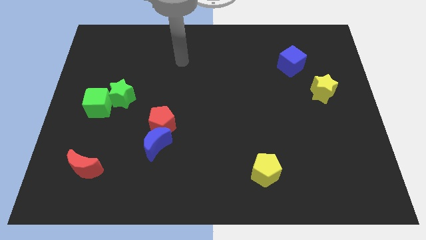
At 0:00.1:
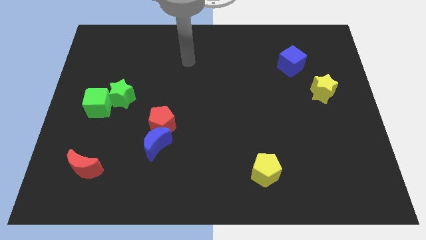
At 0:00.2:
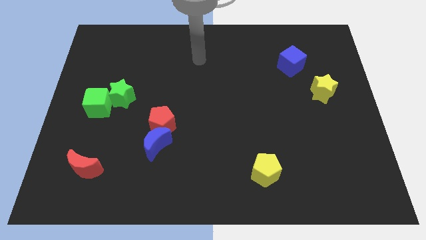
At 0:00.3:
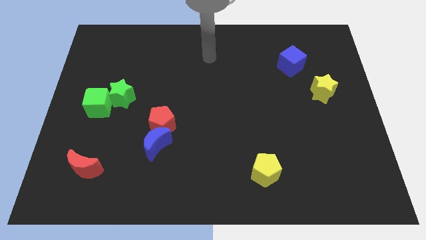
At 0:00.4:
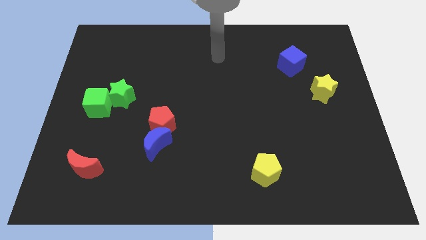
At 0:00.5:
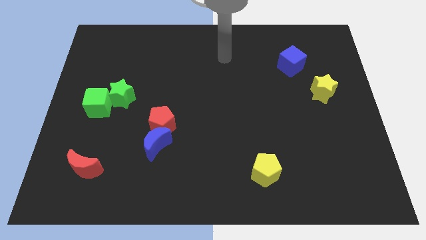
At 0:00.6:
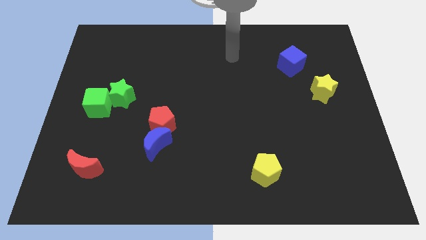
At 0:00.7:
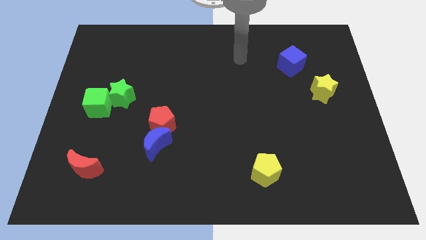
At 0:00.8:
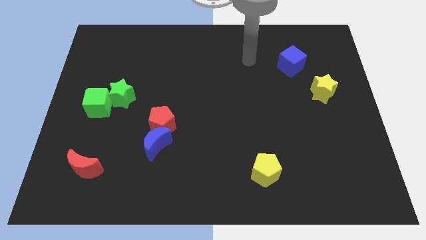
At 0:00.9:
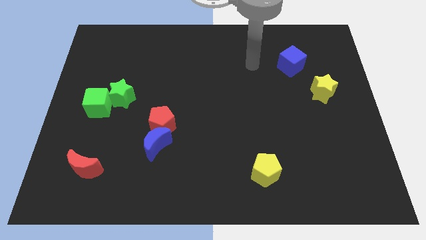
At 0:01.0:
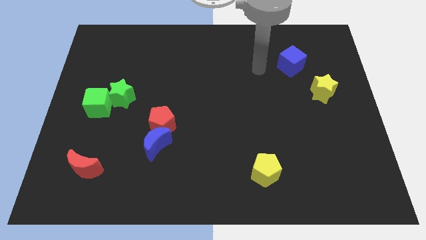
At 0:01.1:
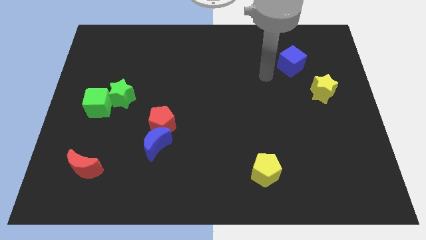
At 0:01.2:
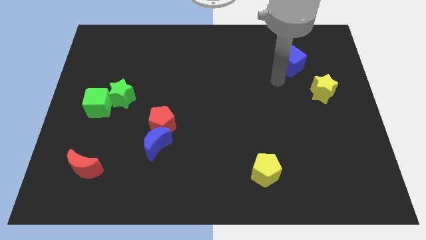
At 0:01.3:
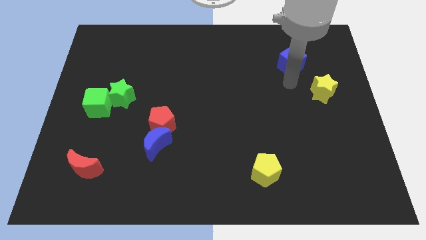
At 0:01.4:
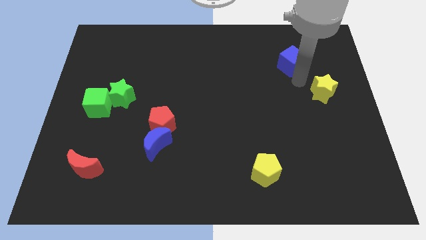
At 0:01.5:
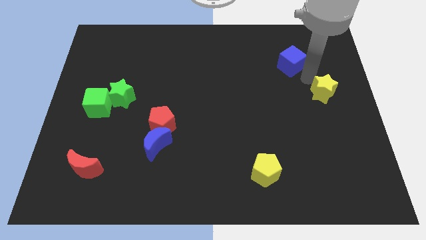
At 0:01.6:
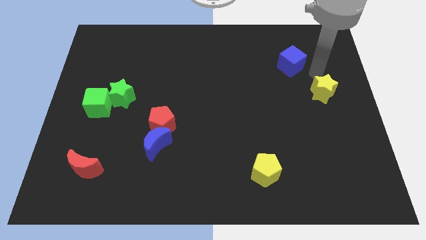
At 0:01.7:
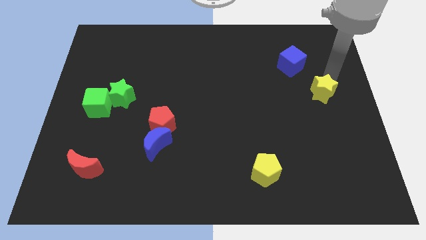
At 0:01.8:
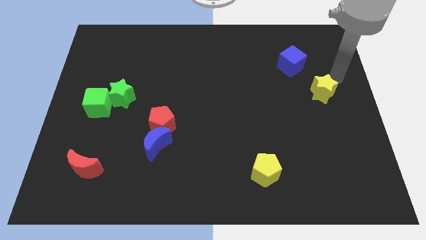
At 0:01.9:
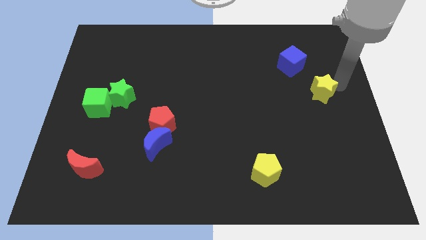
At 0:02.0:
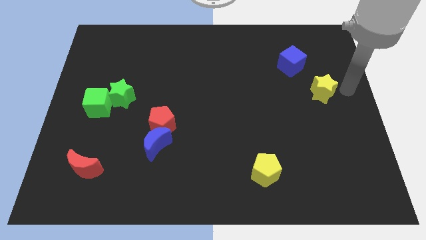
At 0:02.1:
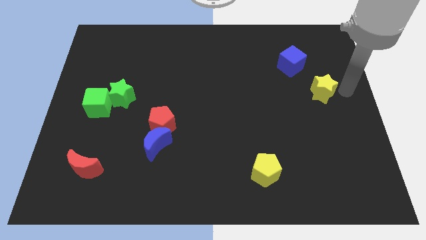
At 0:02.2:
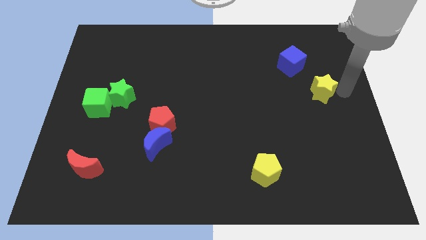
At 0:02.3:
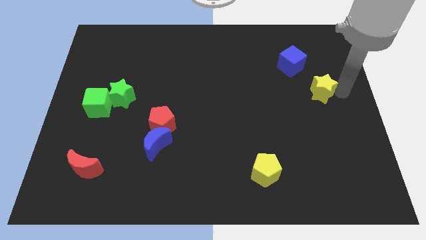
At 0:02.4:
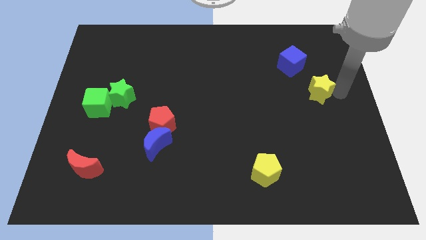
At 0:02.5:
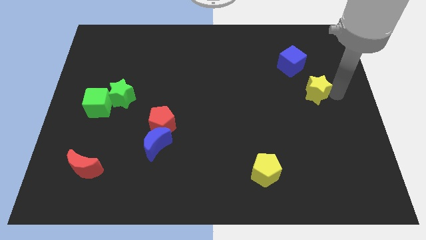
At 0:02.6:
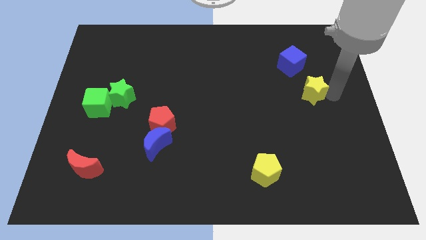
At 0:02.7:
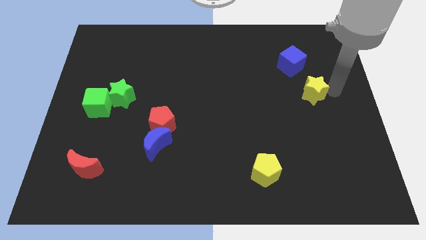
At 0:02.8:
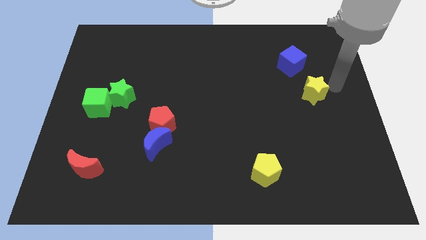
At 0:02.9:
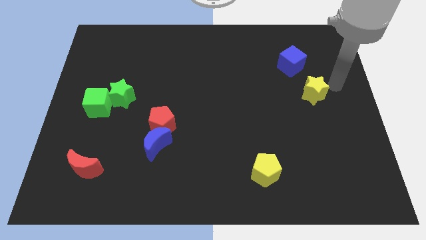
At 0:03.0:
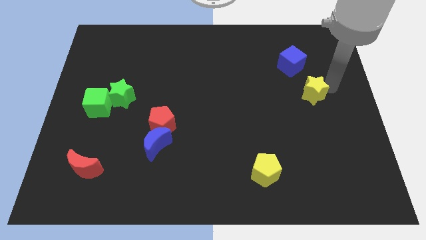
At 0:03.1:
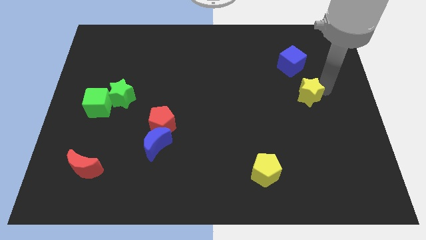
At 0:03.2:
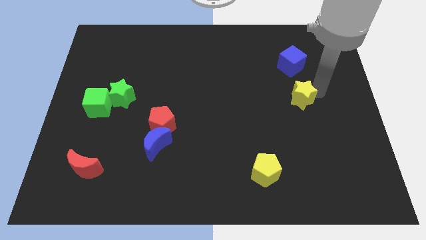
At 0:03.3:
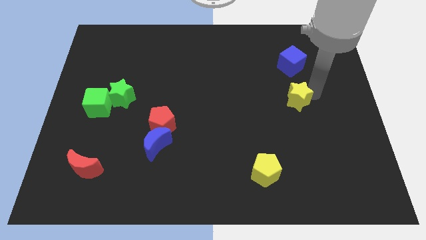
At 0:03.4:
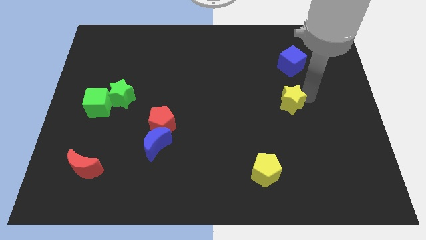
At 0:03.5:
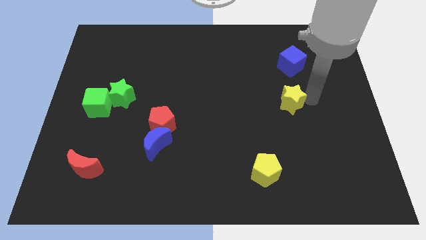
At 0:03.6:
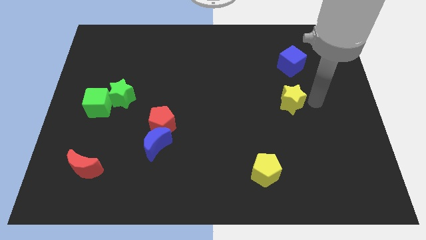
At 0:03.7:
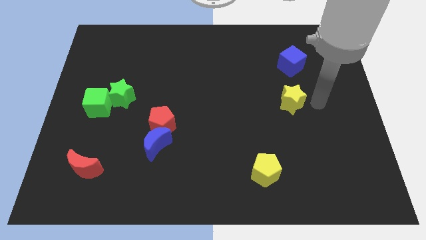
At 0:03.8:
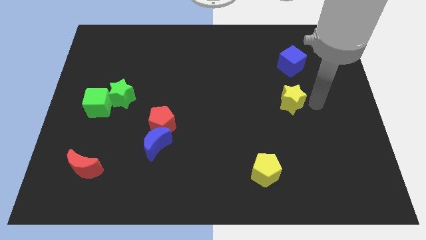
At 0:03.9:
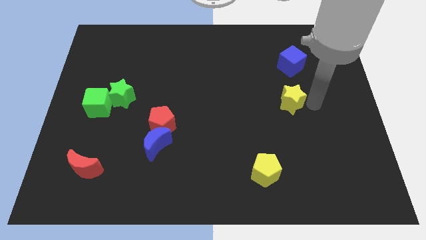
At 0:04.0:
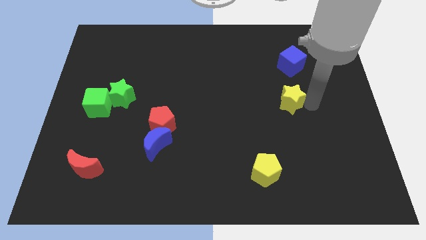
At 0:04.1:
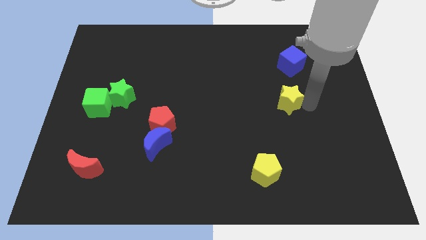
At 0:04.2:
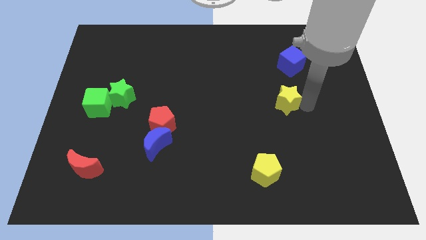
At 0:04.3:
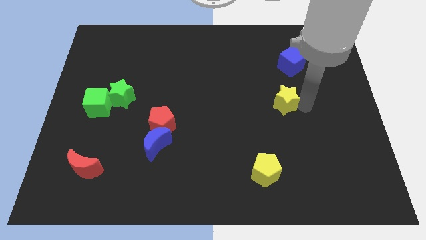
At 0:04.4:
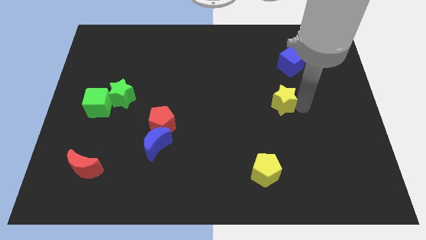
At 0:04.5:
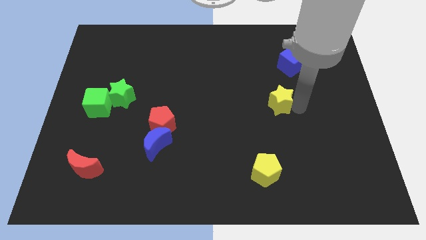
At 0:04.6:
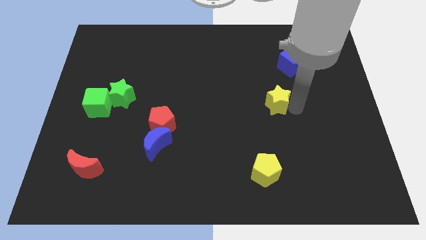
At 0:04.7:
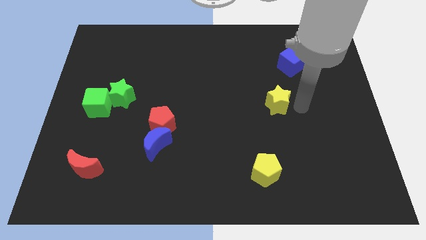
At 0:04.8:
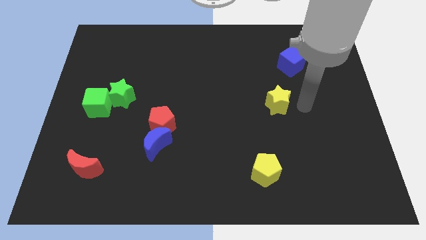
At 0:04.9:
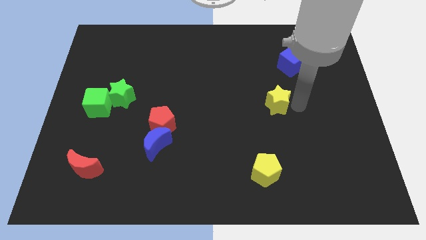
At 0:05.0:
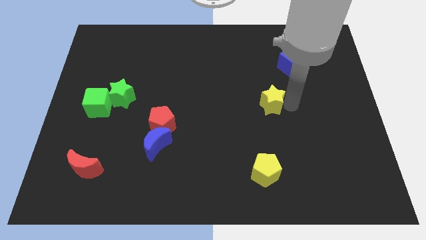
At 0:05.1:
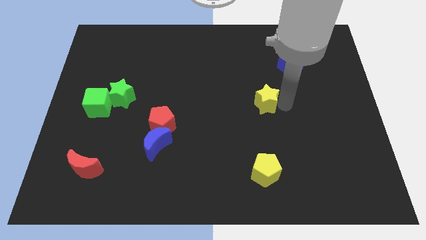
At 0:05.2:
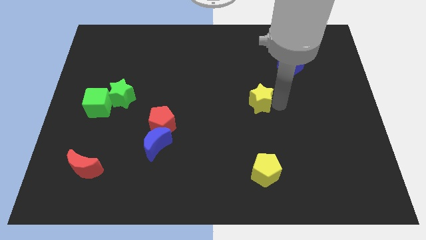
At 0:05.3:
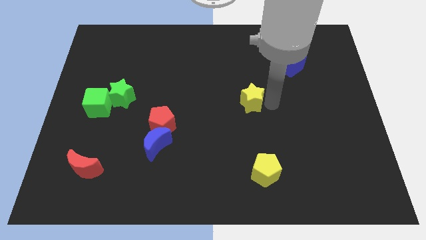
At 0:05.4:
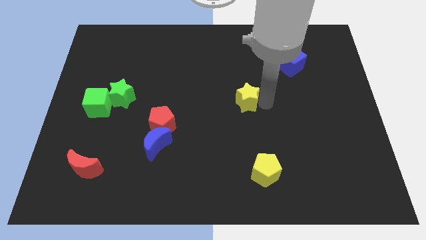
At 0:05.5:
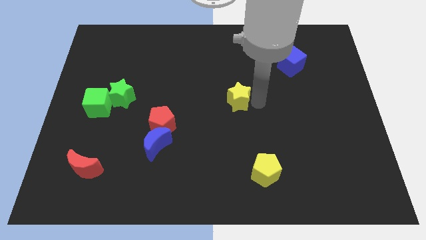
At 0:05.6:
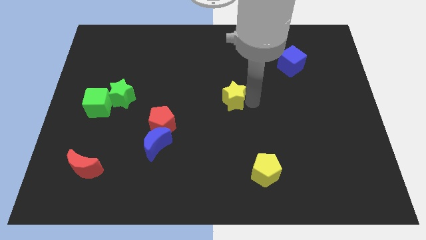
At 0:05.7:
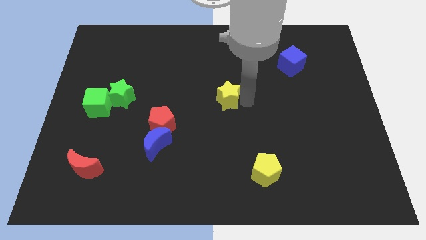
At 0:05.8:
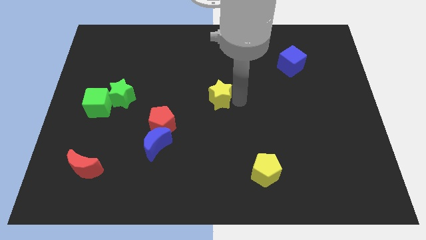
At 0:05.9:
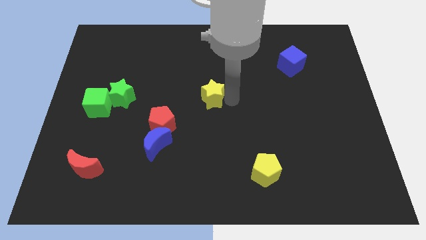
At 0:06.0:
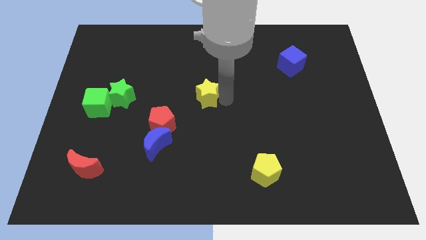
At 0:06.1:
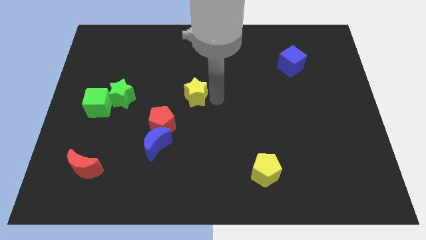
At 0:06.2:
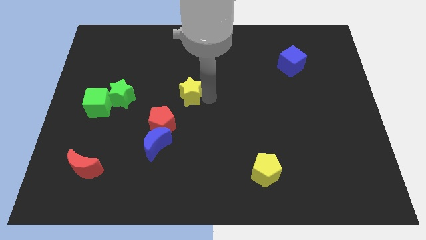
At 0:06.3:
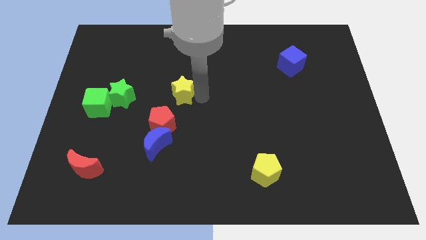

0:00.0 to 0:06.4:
slide the yellow star to the top side of the red pentagon
